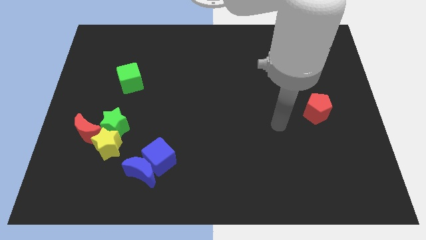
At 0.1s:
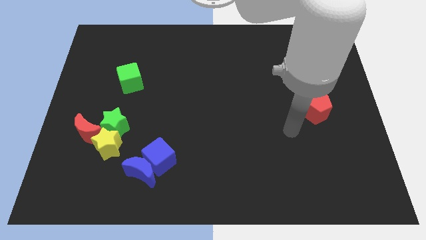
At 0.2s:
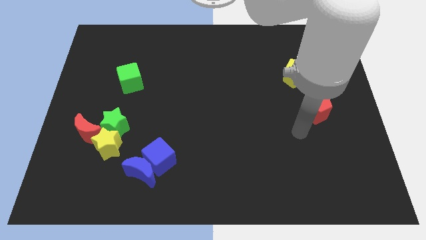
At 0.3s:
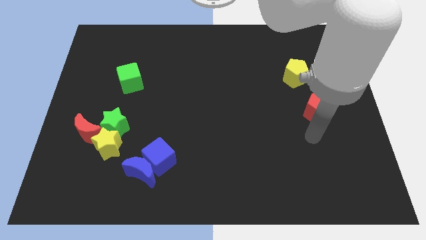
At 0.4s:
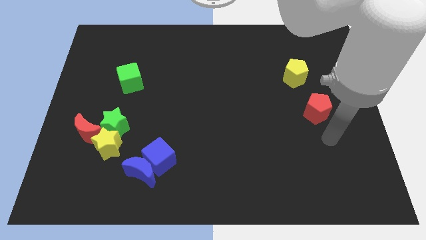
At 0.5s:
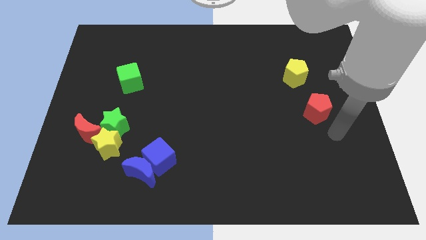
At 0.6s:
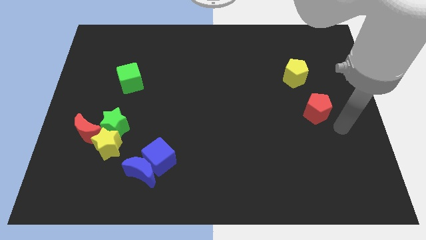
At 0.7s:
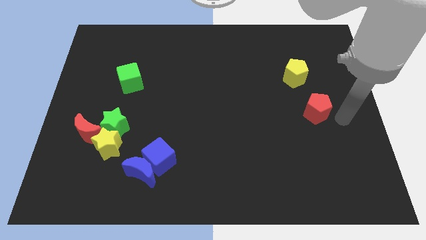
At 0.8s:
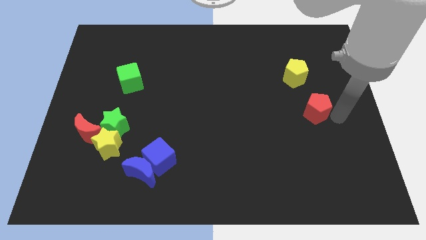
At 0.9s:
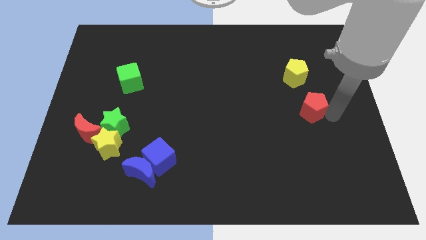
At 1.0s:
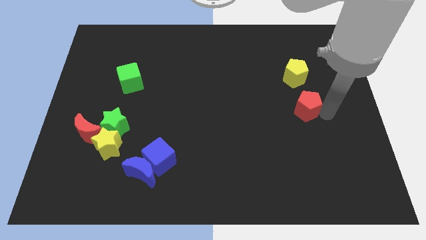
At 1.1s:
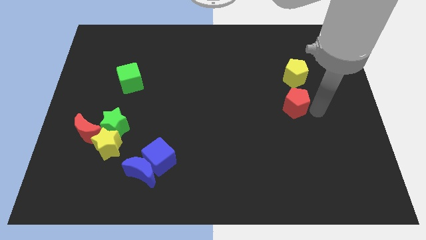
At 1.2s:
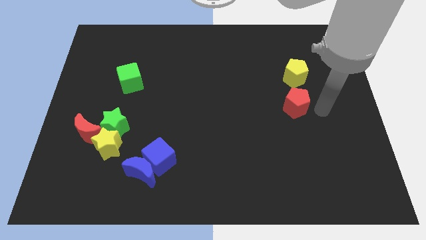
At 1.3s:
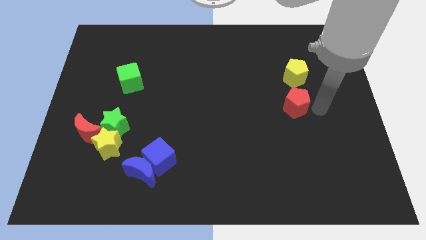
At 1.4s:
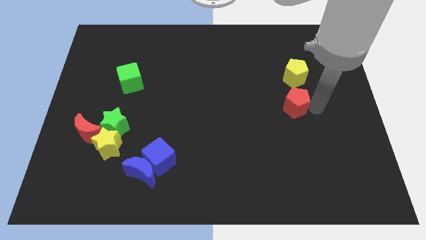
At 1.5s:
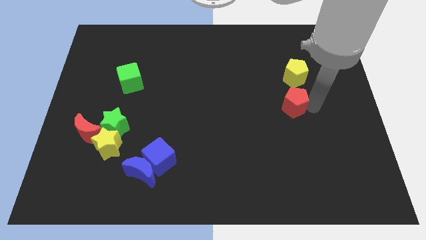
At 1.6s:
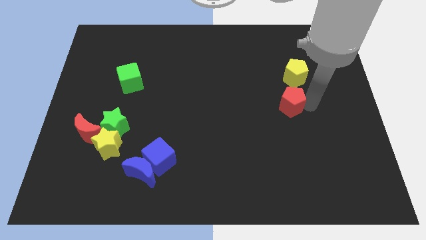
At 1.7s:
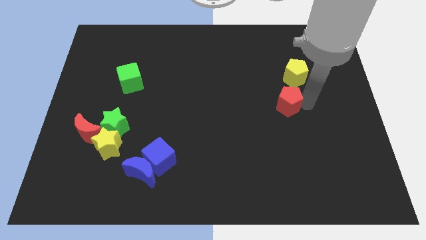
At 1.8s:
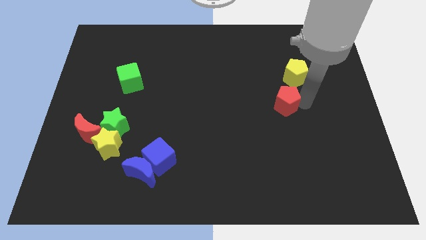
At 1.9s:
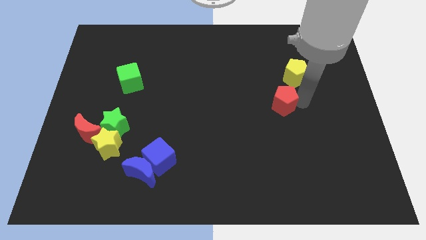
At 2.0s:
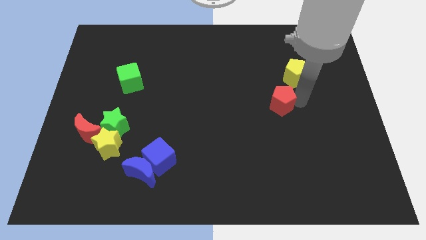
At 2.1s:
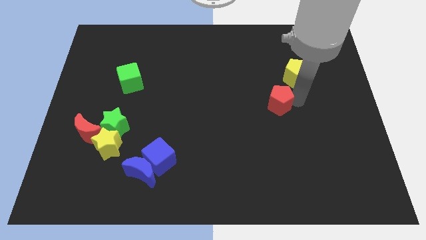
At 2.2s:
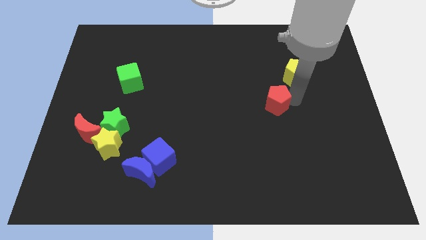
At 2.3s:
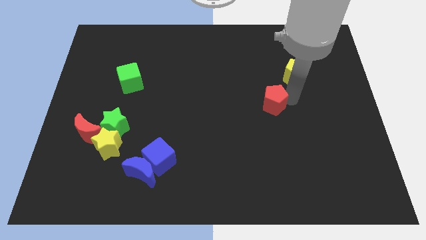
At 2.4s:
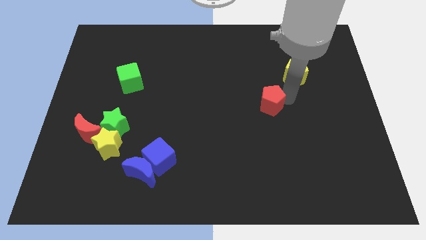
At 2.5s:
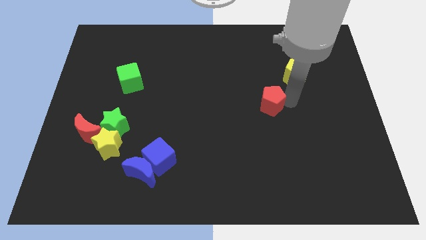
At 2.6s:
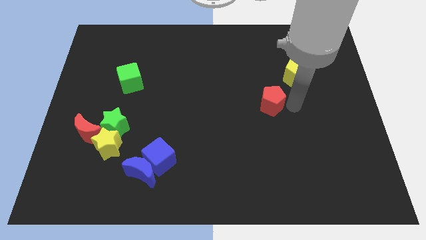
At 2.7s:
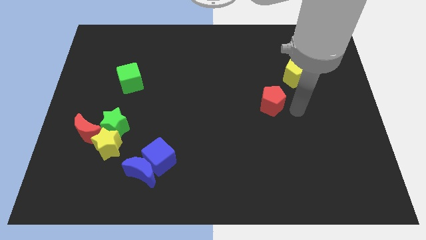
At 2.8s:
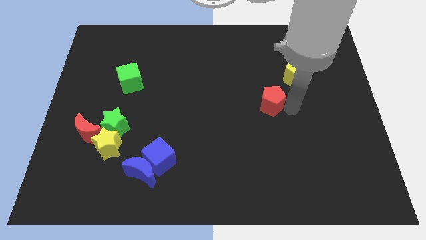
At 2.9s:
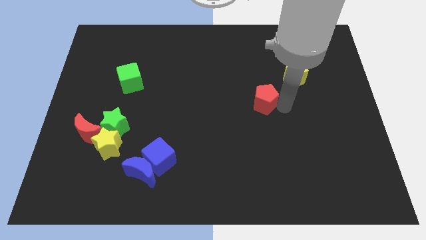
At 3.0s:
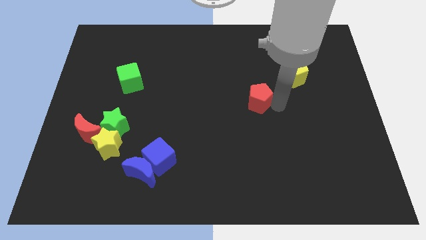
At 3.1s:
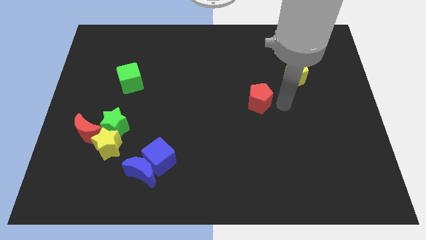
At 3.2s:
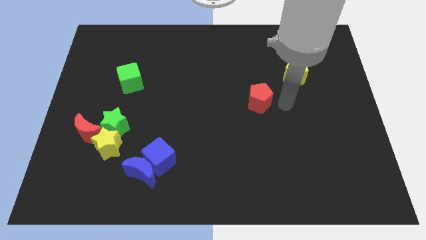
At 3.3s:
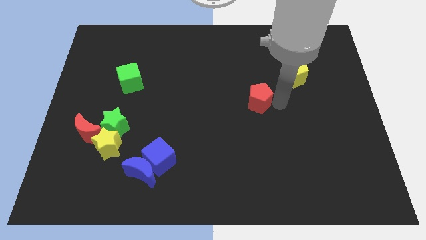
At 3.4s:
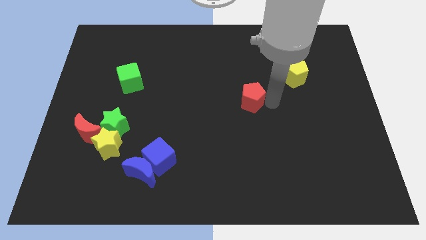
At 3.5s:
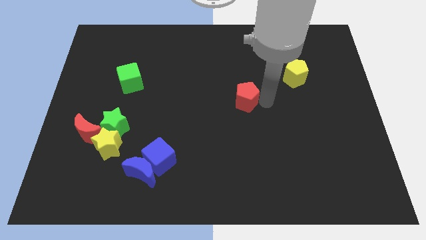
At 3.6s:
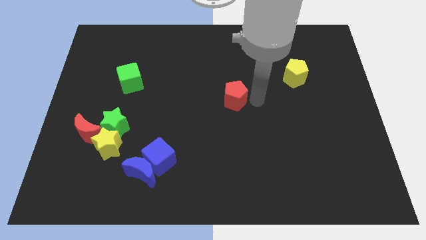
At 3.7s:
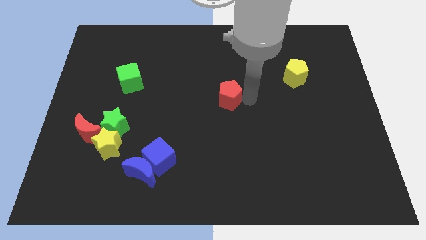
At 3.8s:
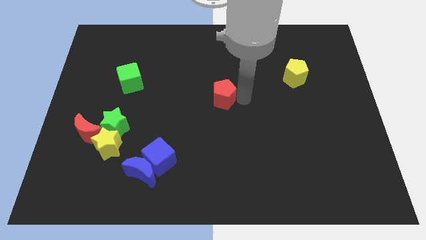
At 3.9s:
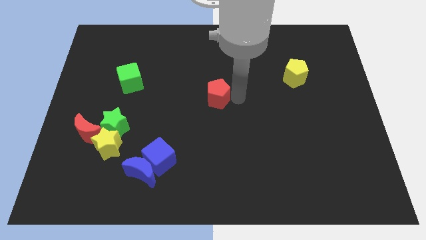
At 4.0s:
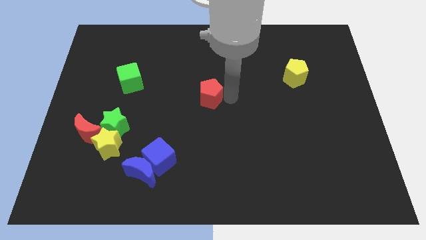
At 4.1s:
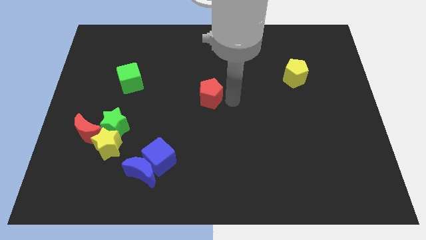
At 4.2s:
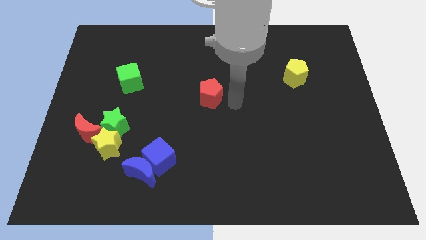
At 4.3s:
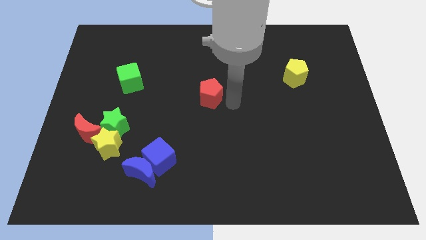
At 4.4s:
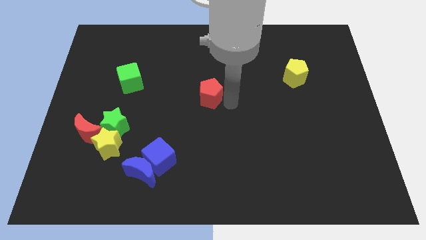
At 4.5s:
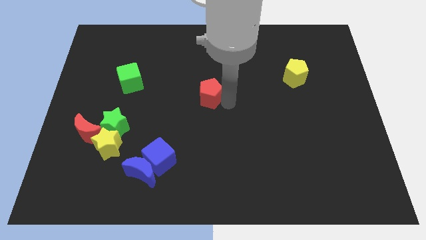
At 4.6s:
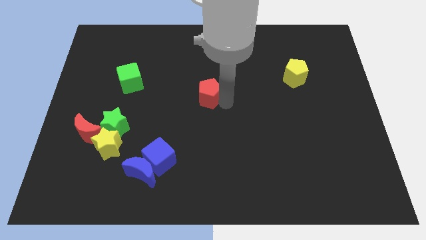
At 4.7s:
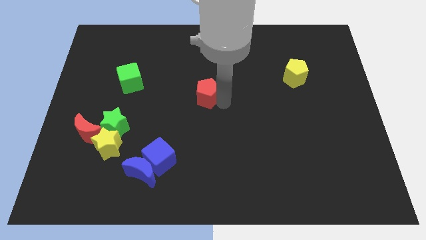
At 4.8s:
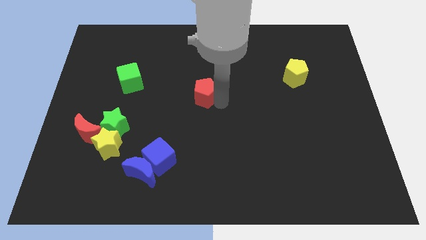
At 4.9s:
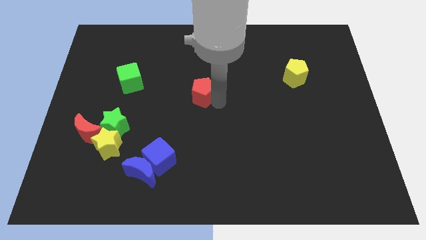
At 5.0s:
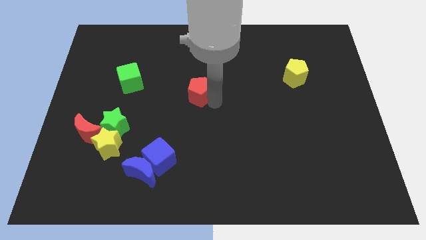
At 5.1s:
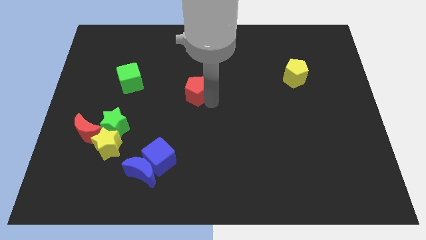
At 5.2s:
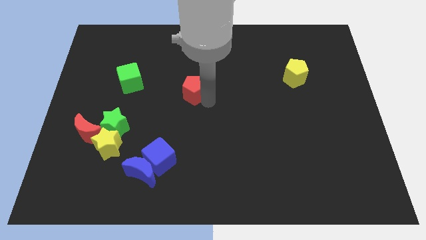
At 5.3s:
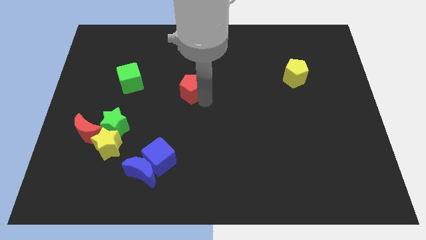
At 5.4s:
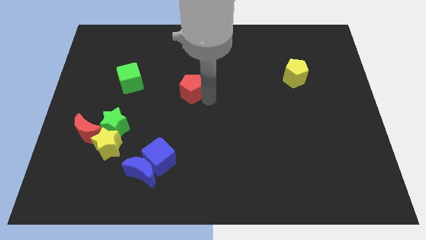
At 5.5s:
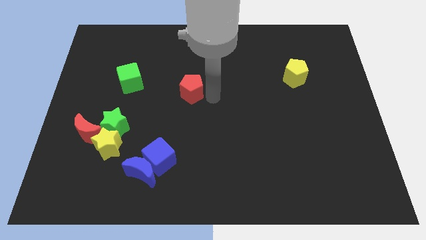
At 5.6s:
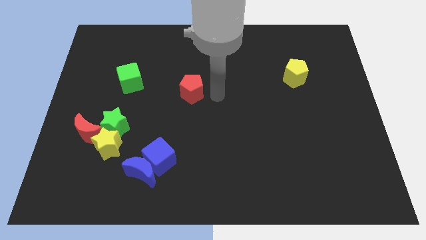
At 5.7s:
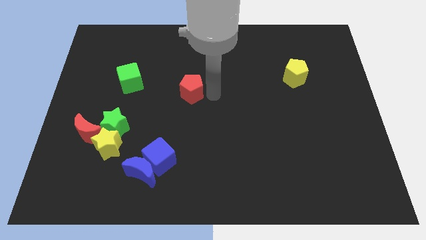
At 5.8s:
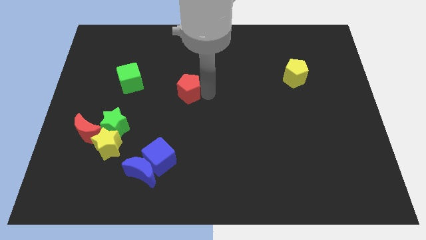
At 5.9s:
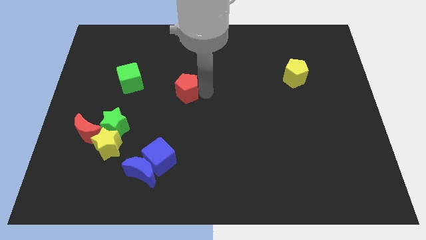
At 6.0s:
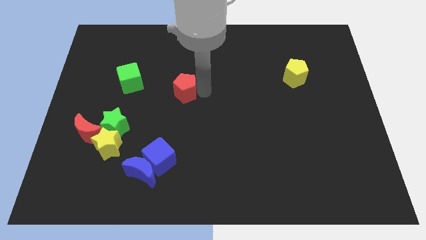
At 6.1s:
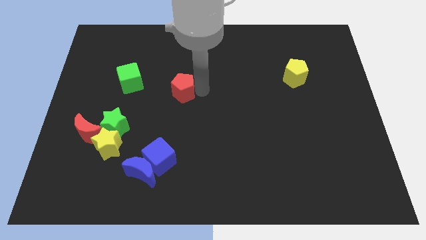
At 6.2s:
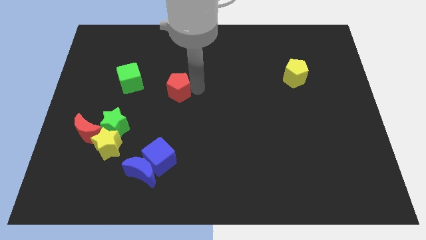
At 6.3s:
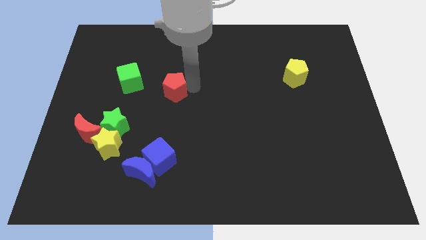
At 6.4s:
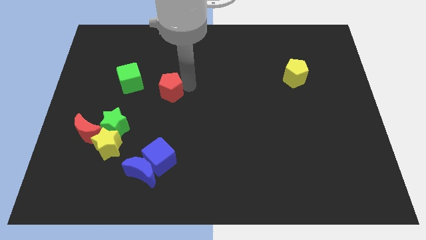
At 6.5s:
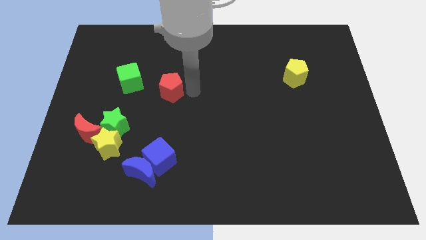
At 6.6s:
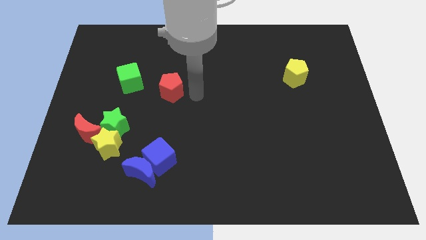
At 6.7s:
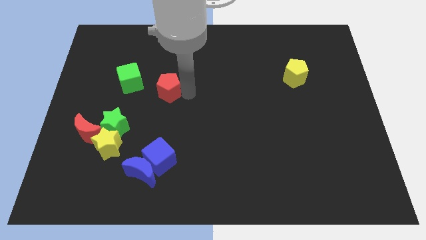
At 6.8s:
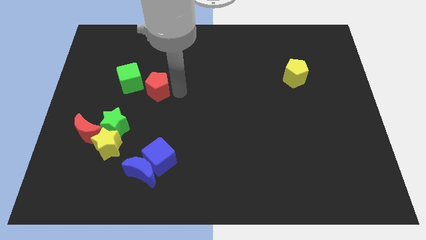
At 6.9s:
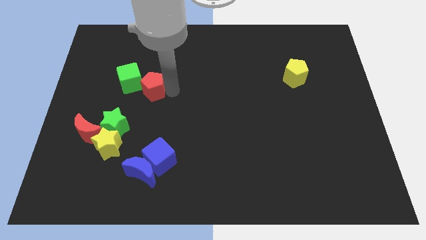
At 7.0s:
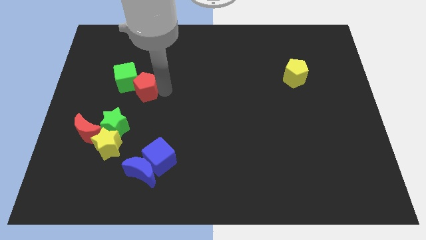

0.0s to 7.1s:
slide the red pentagon close to the green cube

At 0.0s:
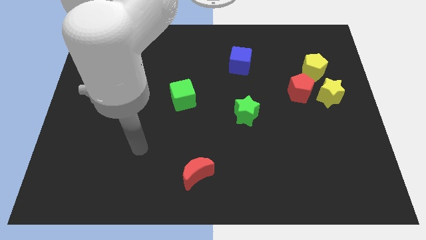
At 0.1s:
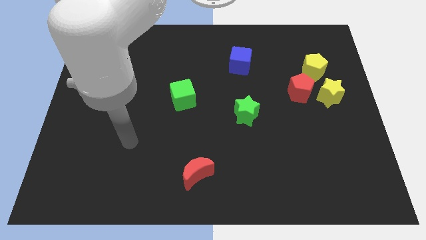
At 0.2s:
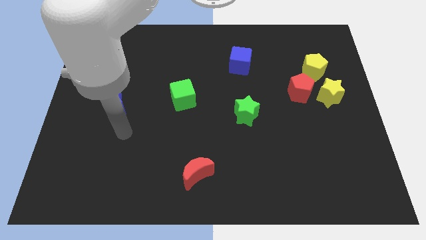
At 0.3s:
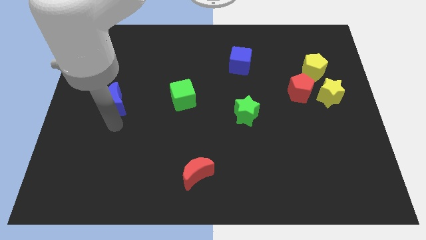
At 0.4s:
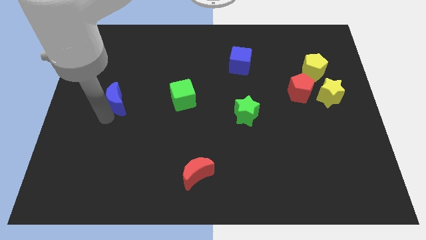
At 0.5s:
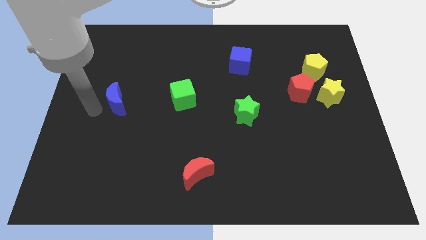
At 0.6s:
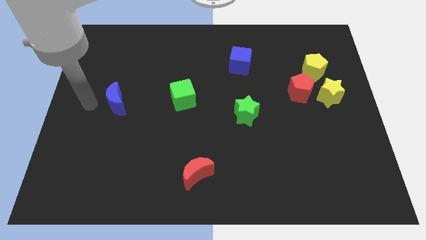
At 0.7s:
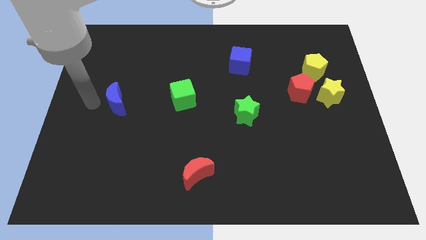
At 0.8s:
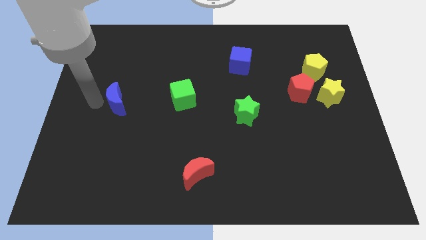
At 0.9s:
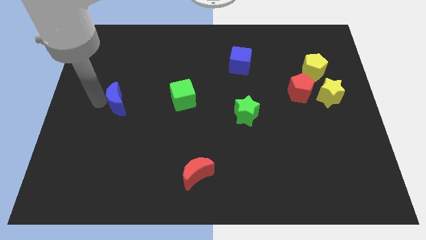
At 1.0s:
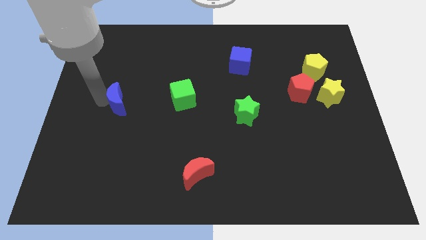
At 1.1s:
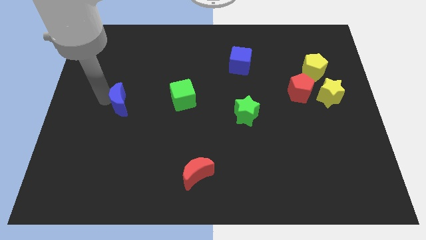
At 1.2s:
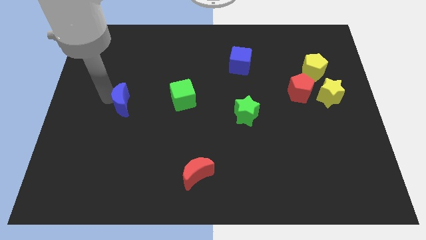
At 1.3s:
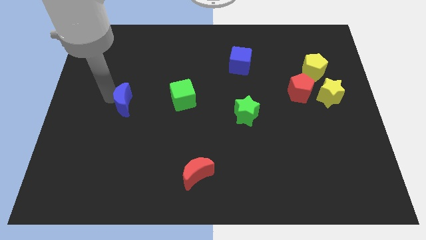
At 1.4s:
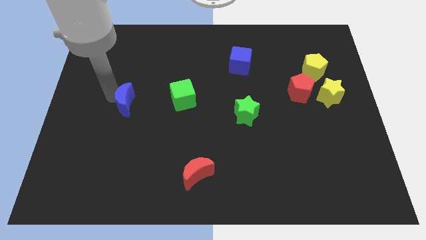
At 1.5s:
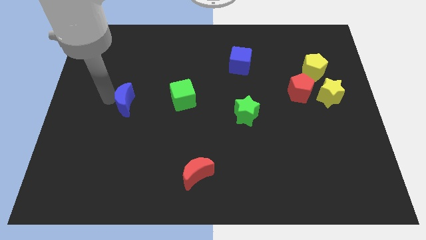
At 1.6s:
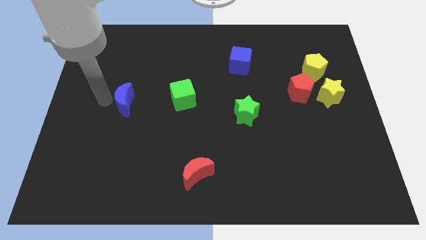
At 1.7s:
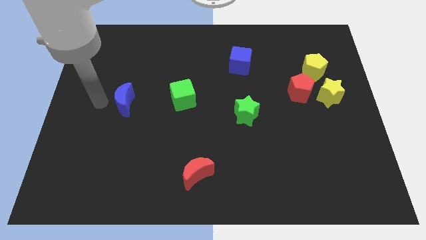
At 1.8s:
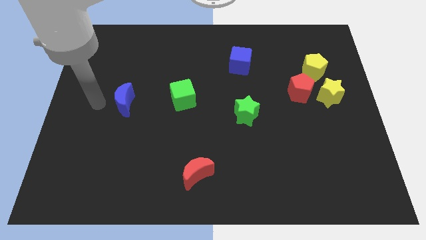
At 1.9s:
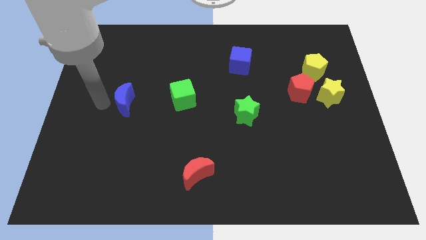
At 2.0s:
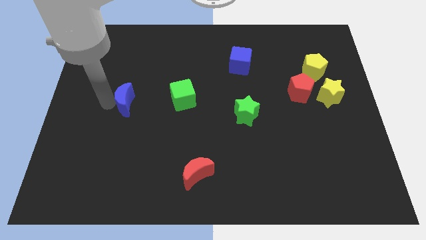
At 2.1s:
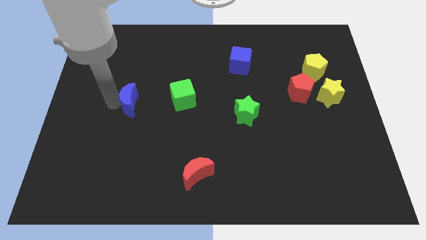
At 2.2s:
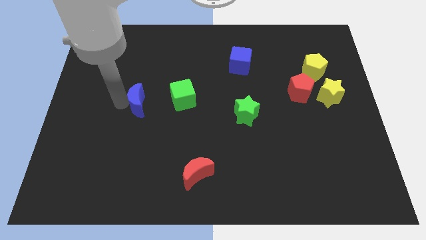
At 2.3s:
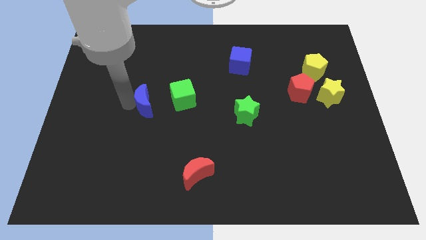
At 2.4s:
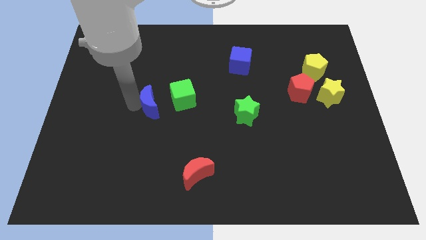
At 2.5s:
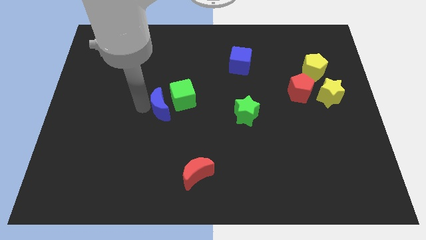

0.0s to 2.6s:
push the blue moon towards the green cube
